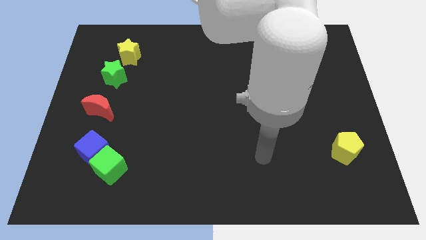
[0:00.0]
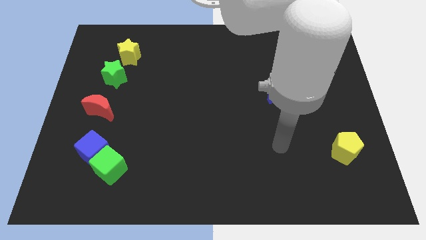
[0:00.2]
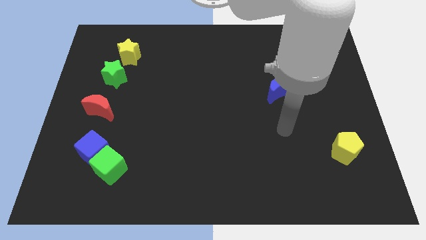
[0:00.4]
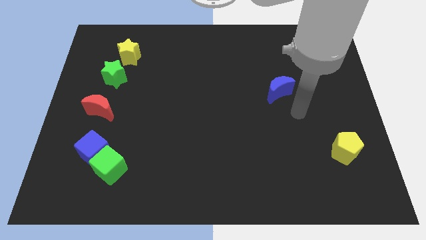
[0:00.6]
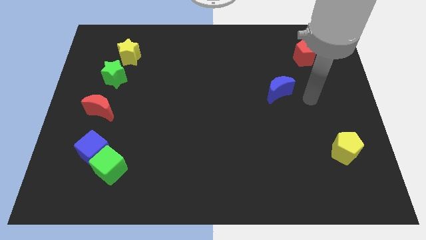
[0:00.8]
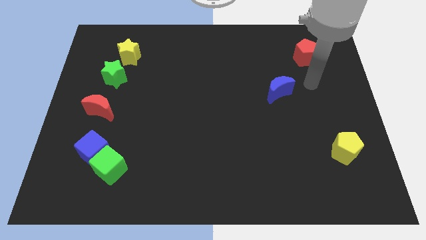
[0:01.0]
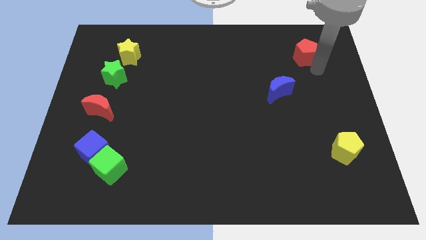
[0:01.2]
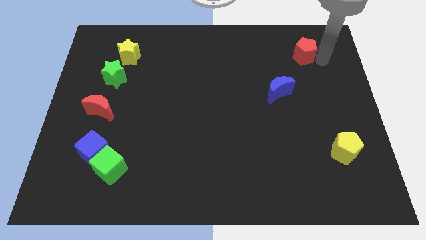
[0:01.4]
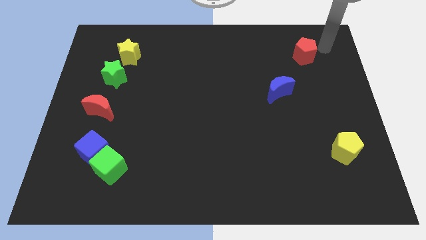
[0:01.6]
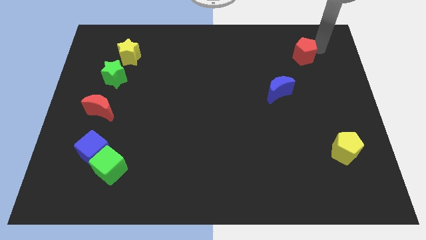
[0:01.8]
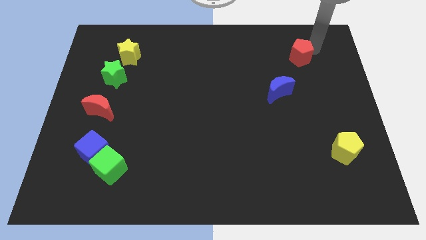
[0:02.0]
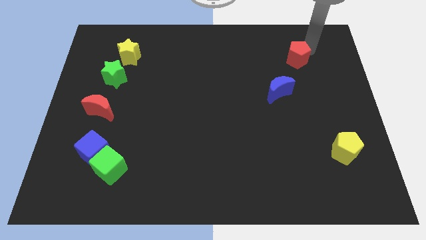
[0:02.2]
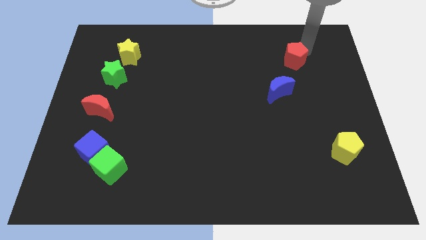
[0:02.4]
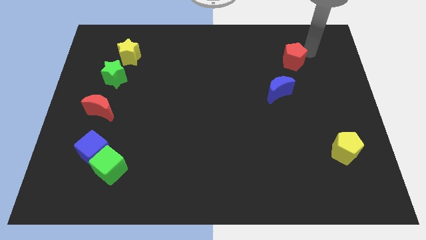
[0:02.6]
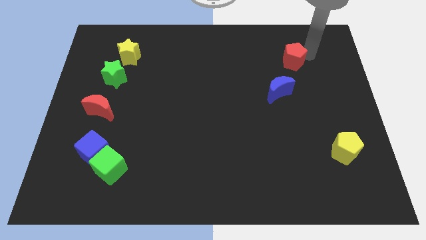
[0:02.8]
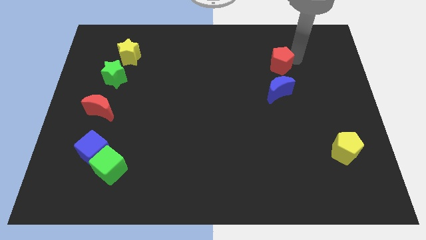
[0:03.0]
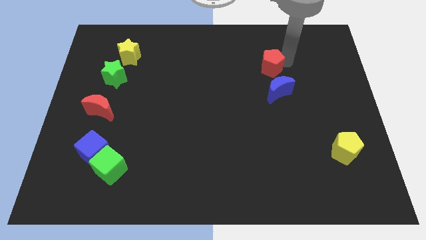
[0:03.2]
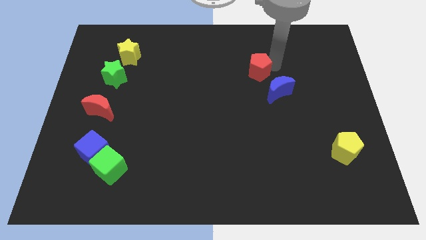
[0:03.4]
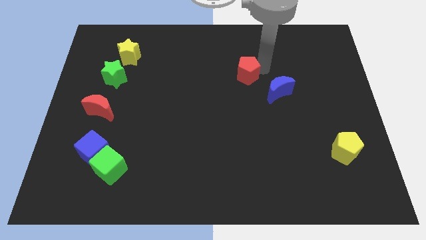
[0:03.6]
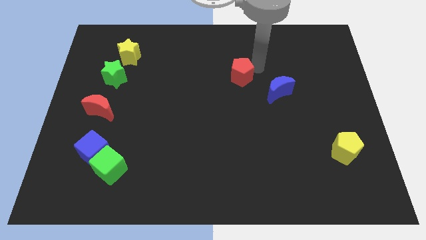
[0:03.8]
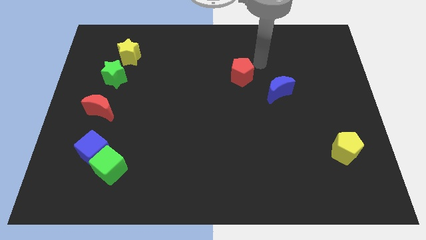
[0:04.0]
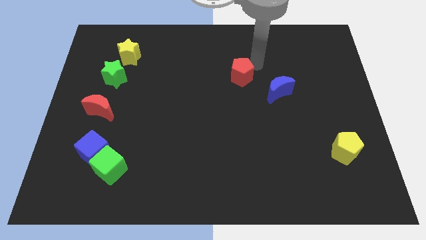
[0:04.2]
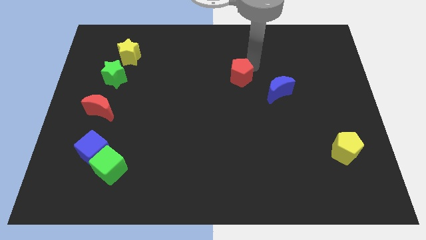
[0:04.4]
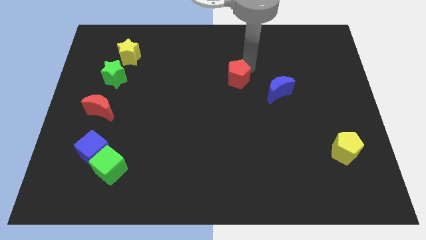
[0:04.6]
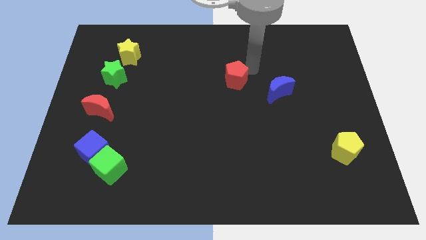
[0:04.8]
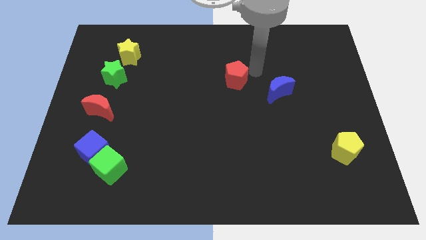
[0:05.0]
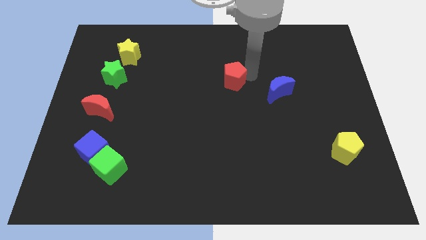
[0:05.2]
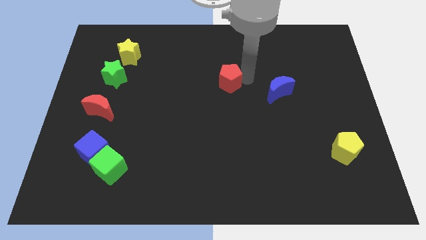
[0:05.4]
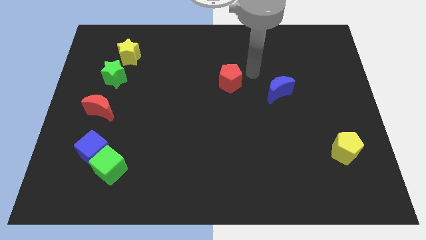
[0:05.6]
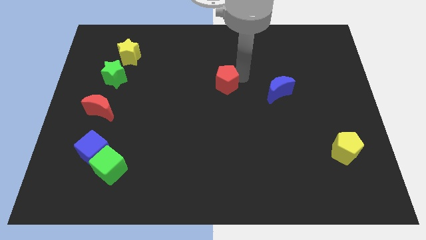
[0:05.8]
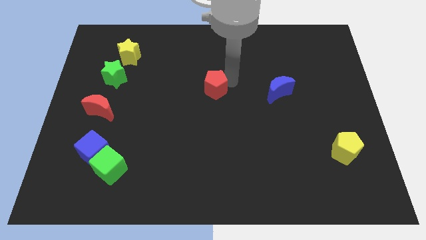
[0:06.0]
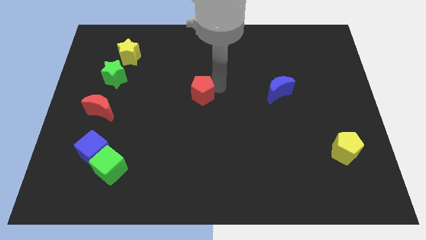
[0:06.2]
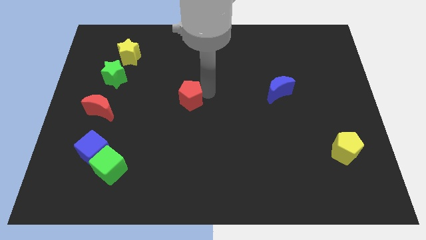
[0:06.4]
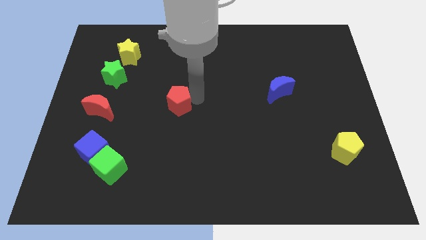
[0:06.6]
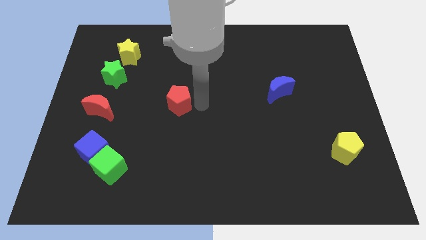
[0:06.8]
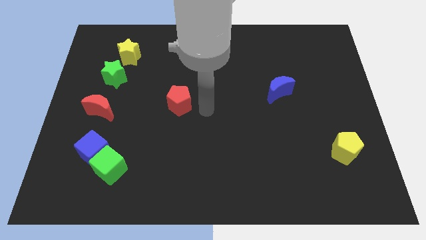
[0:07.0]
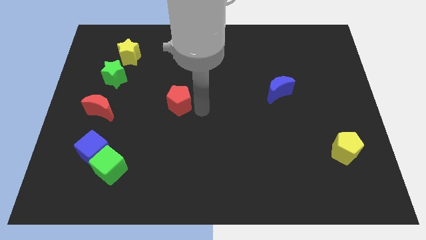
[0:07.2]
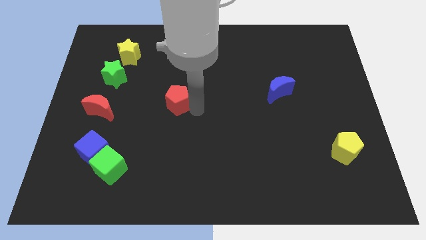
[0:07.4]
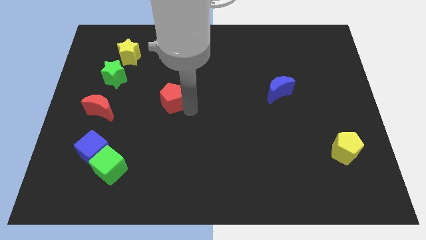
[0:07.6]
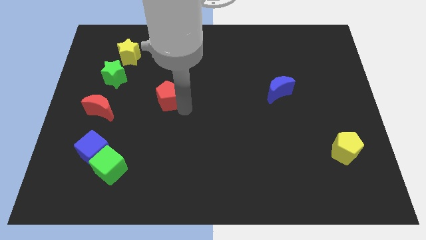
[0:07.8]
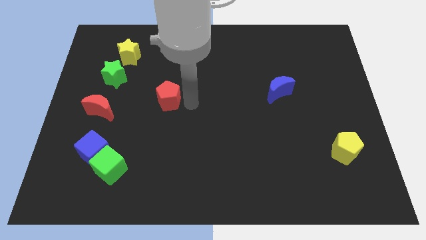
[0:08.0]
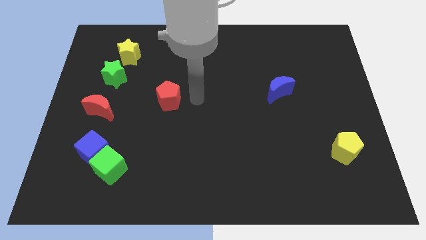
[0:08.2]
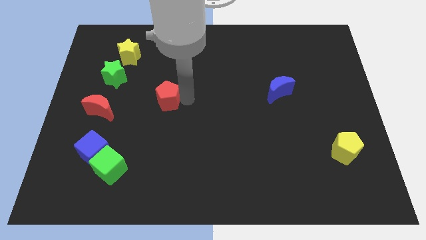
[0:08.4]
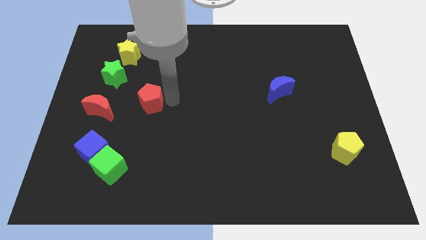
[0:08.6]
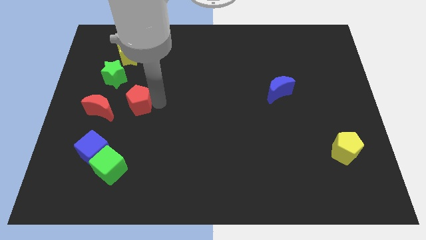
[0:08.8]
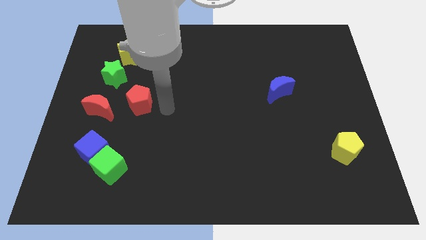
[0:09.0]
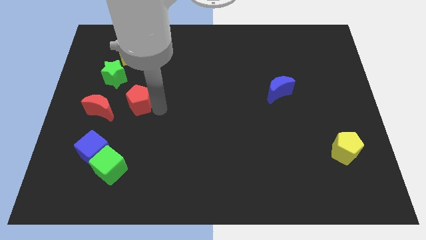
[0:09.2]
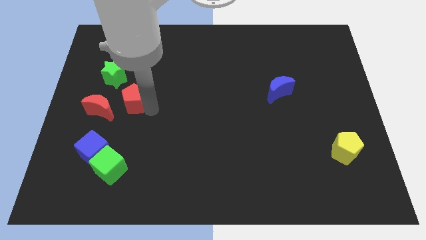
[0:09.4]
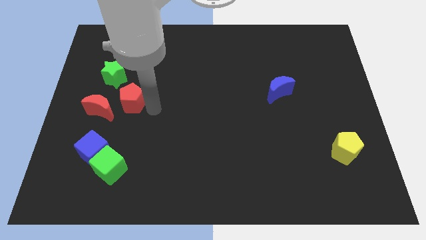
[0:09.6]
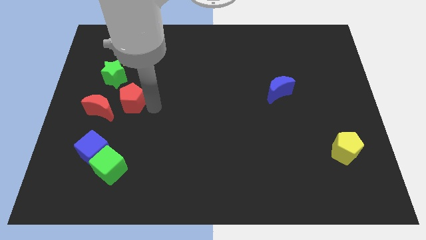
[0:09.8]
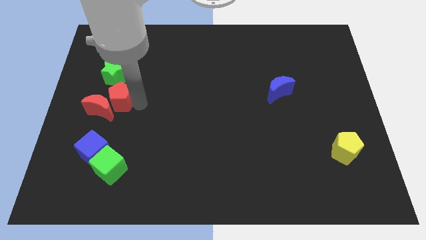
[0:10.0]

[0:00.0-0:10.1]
put the red pentagon to the top side of the blue cube

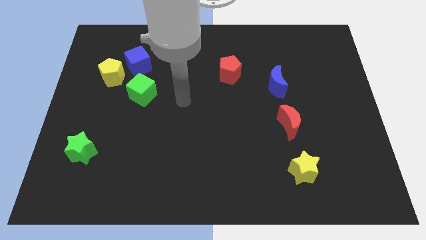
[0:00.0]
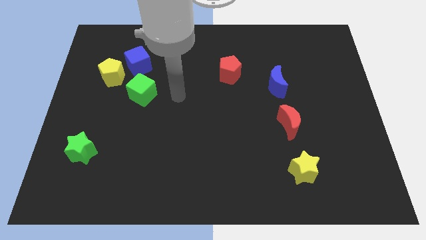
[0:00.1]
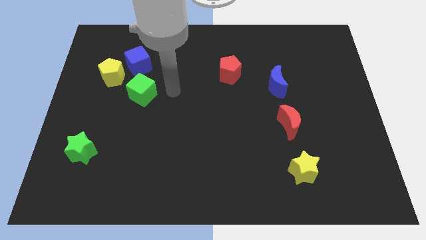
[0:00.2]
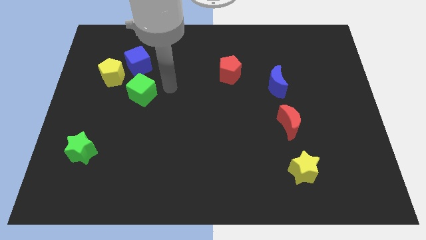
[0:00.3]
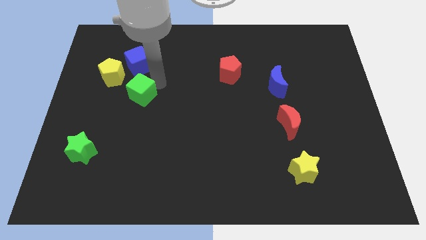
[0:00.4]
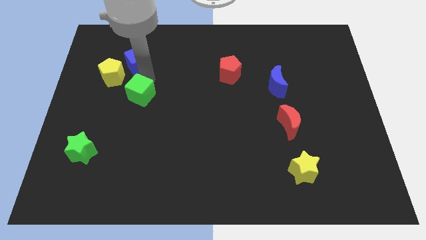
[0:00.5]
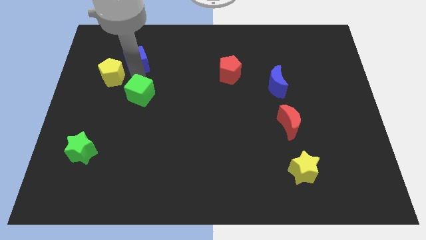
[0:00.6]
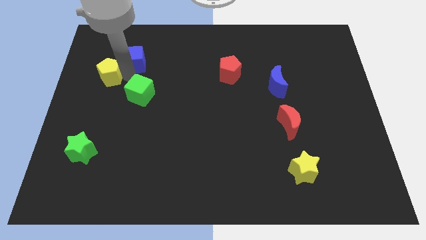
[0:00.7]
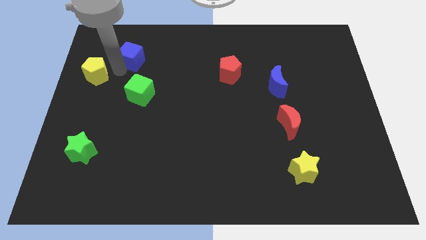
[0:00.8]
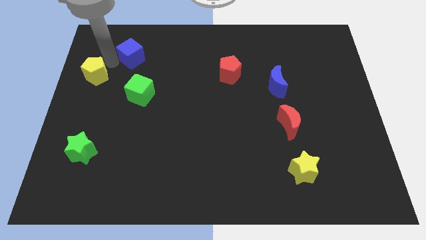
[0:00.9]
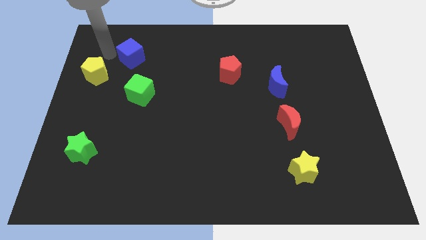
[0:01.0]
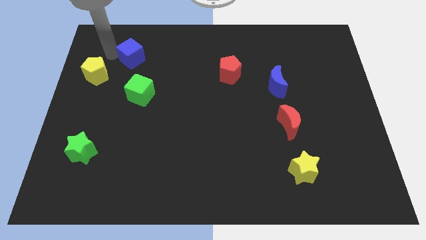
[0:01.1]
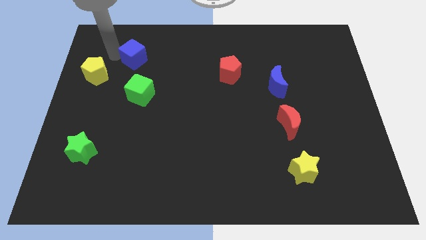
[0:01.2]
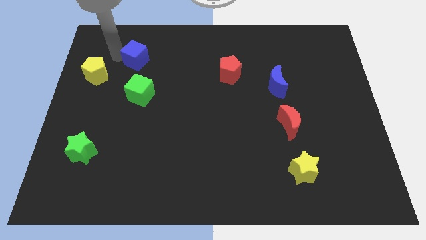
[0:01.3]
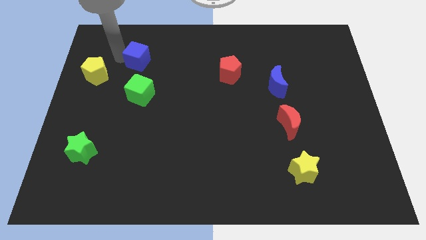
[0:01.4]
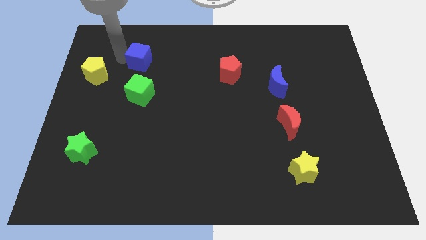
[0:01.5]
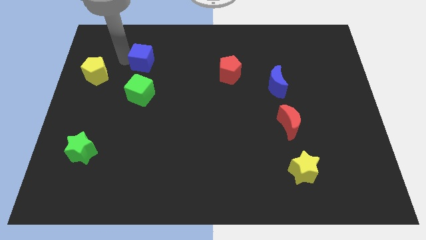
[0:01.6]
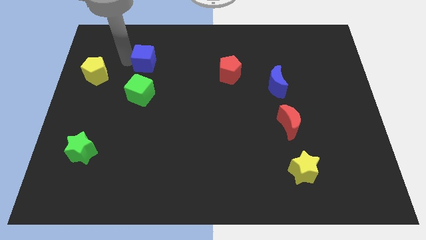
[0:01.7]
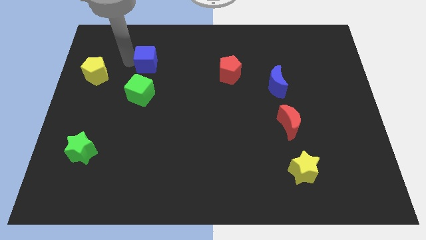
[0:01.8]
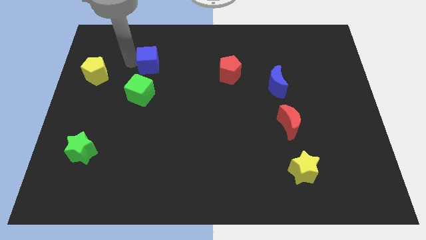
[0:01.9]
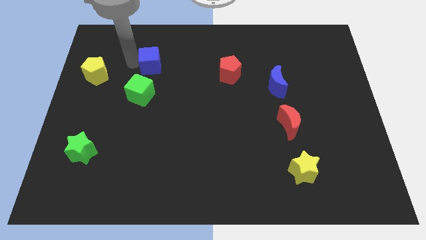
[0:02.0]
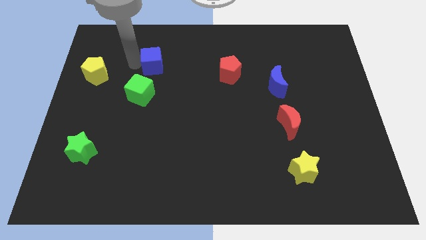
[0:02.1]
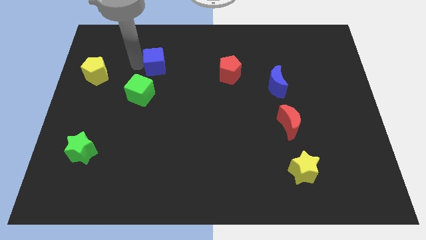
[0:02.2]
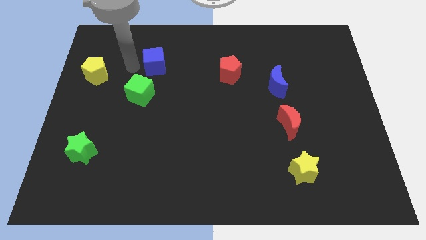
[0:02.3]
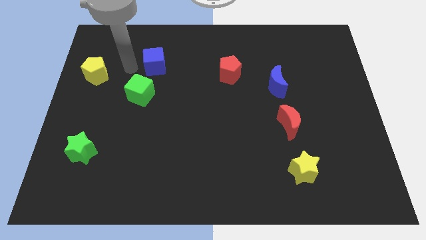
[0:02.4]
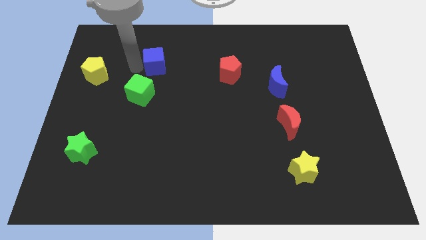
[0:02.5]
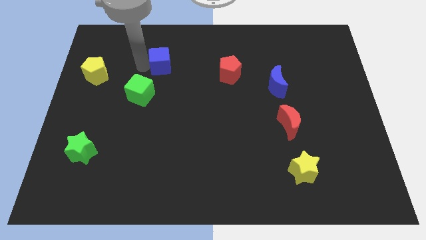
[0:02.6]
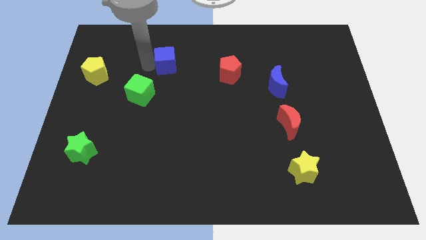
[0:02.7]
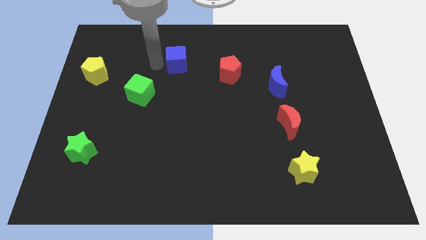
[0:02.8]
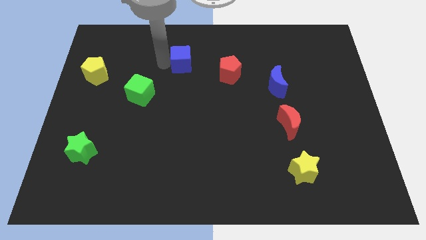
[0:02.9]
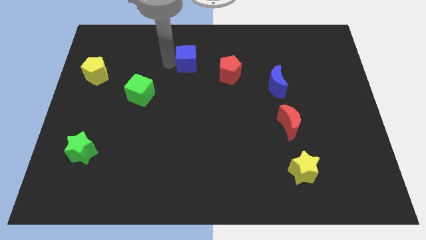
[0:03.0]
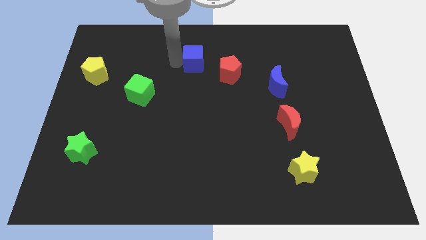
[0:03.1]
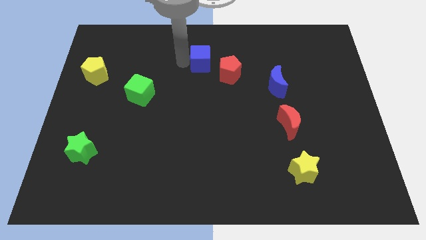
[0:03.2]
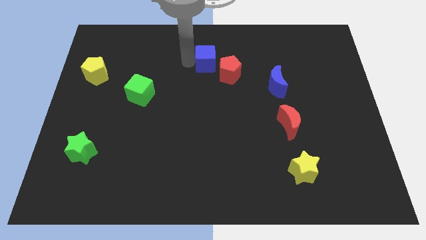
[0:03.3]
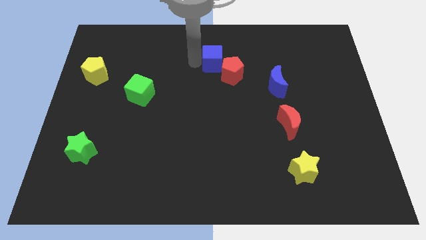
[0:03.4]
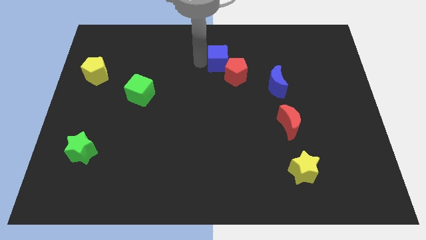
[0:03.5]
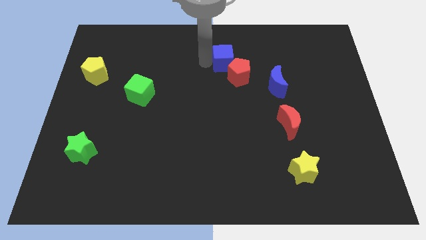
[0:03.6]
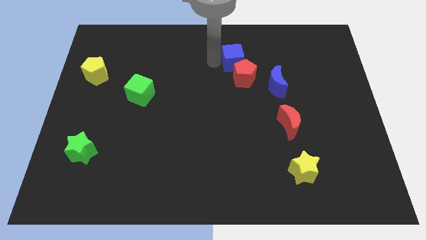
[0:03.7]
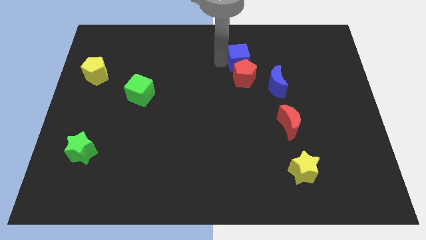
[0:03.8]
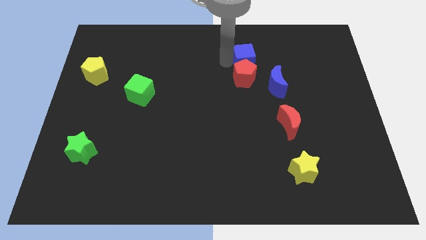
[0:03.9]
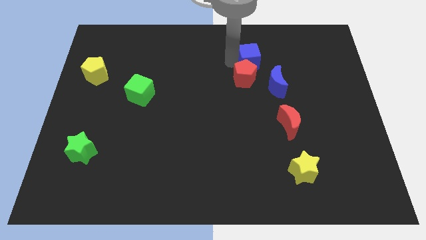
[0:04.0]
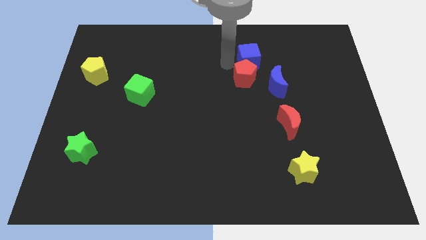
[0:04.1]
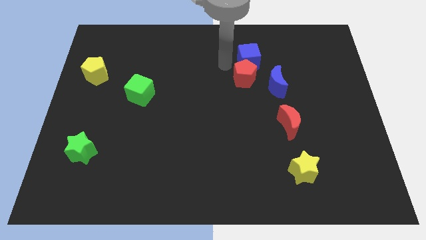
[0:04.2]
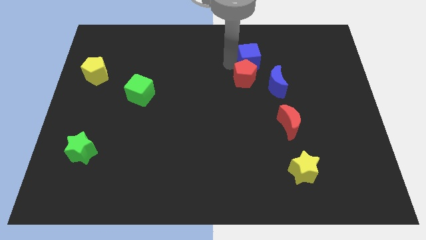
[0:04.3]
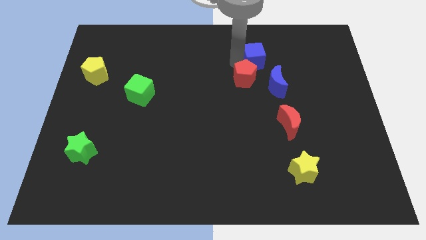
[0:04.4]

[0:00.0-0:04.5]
move the blue cube to the top of the blue moon
